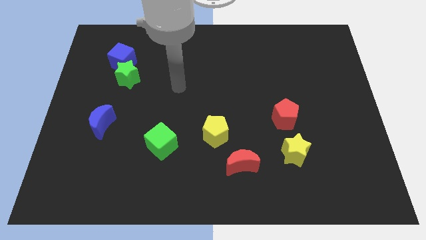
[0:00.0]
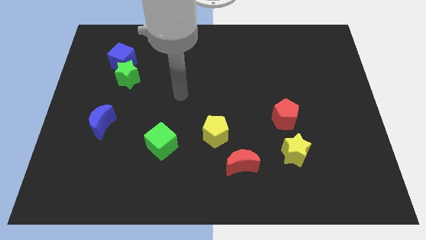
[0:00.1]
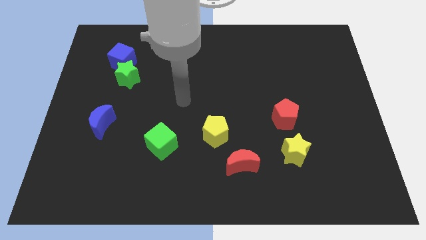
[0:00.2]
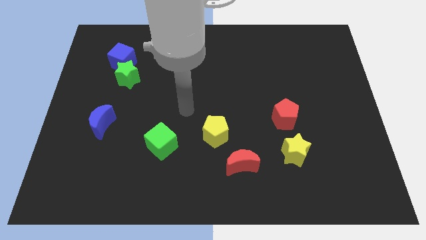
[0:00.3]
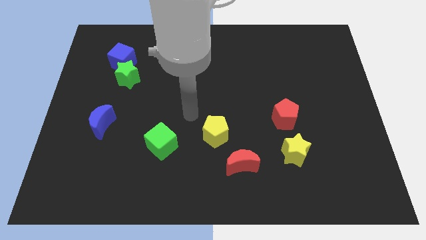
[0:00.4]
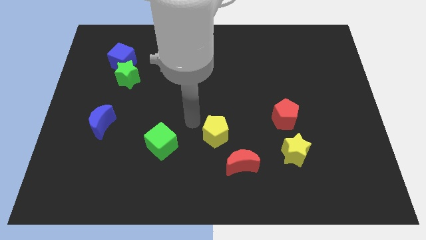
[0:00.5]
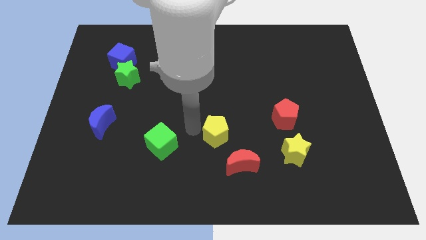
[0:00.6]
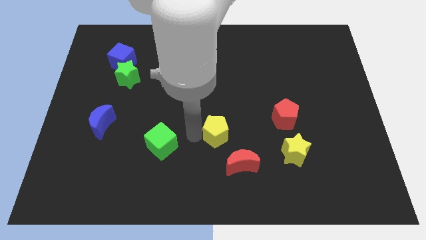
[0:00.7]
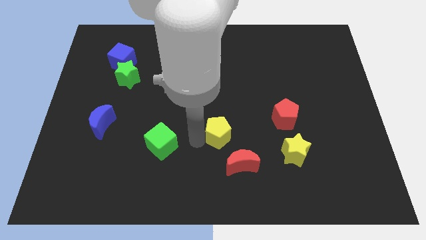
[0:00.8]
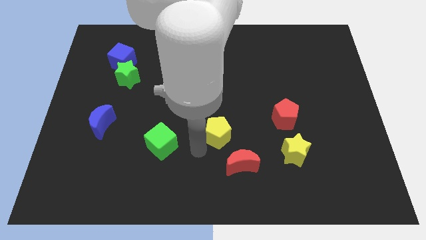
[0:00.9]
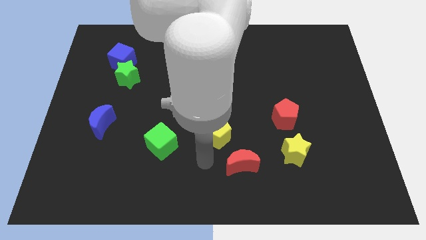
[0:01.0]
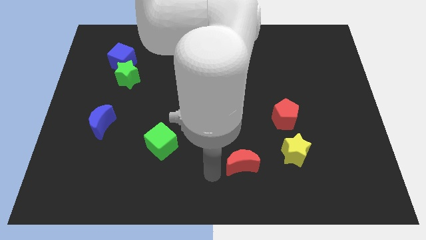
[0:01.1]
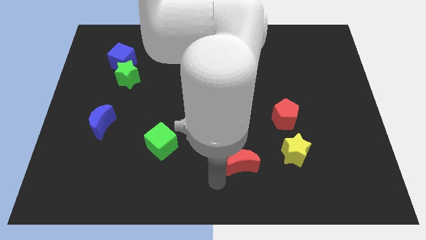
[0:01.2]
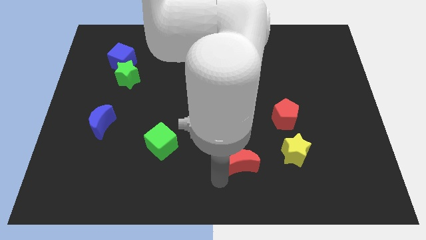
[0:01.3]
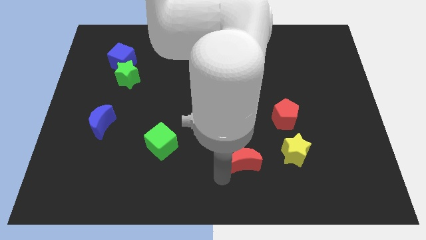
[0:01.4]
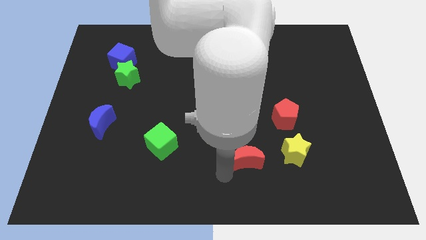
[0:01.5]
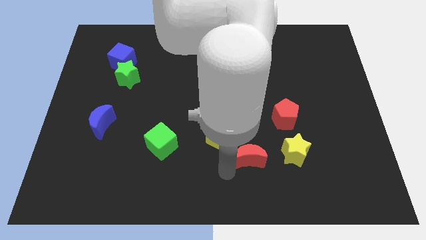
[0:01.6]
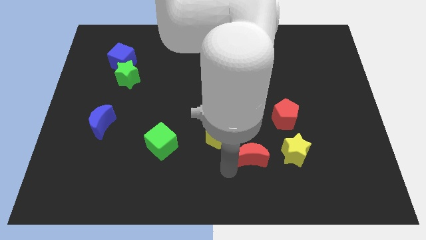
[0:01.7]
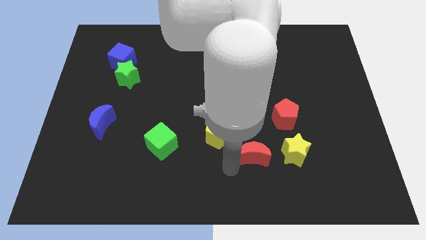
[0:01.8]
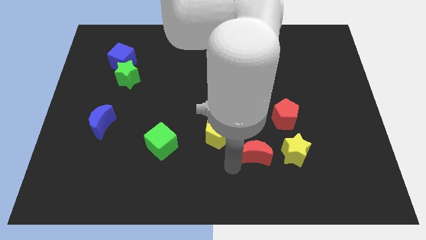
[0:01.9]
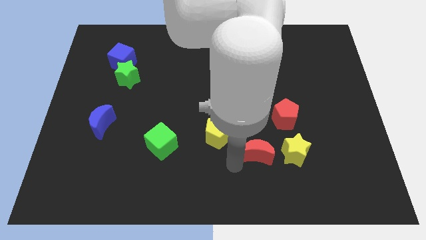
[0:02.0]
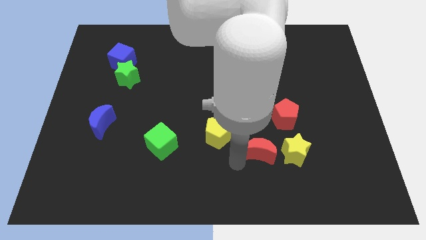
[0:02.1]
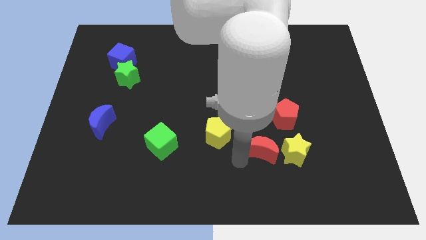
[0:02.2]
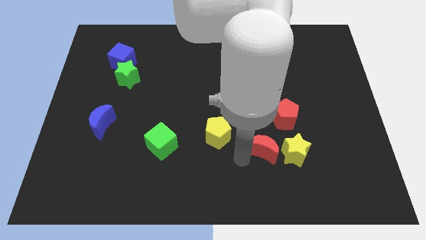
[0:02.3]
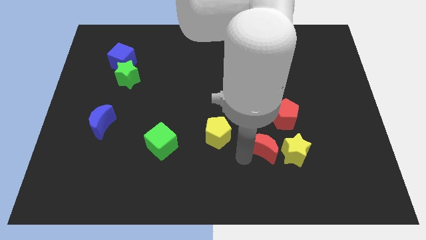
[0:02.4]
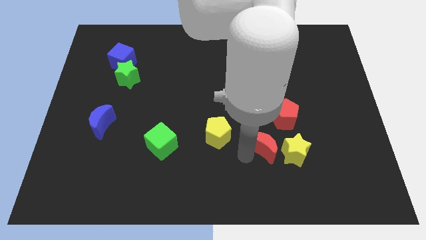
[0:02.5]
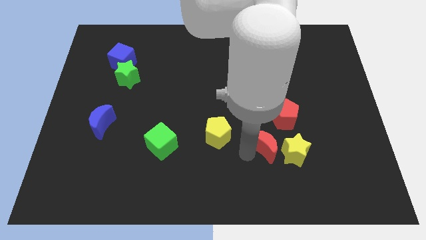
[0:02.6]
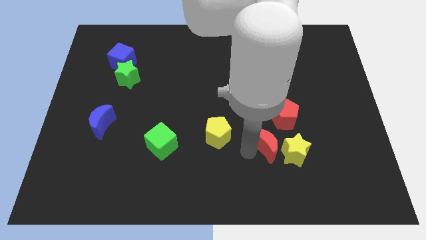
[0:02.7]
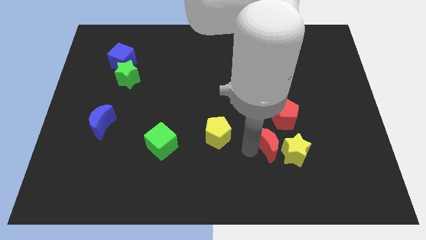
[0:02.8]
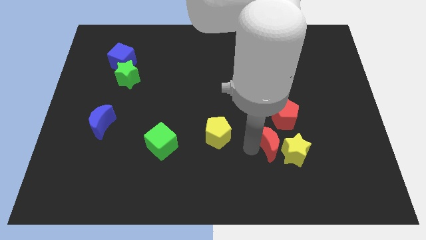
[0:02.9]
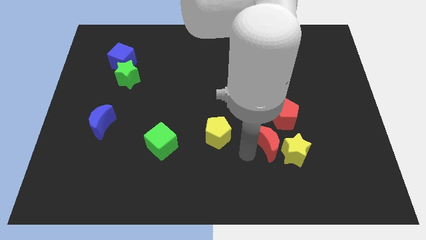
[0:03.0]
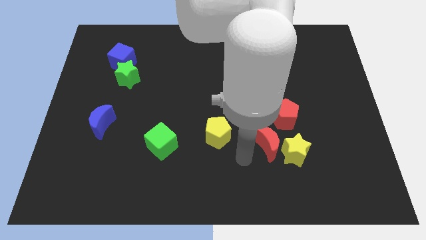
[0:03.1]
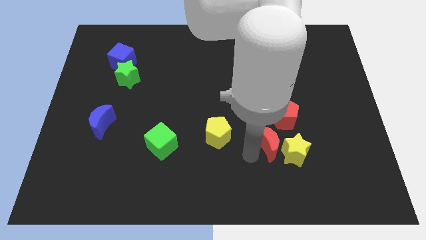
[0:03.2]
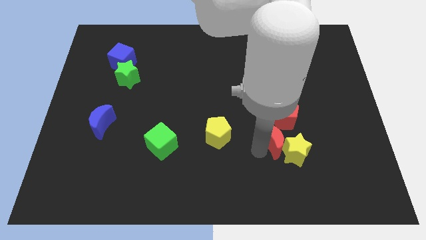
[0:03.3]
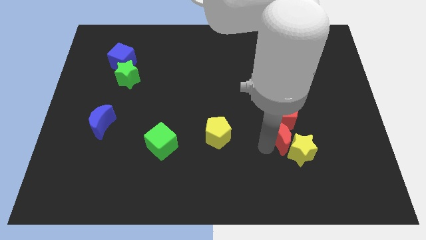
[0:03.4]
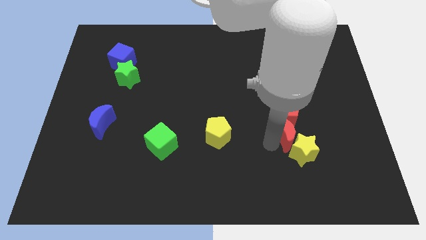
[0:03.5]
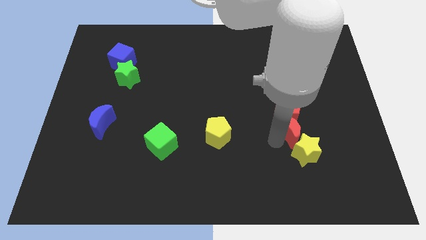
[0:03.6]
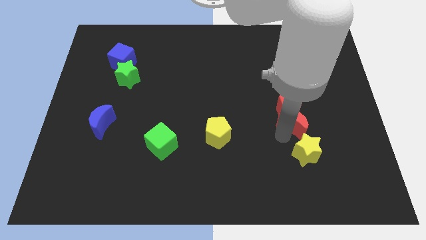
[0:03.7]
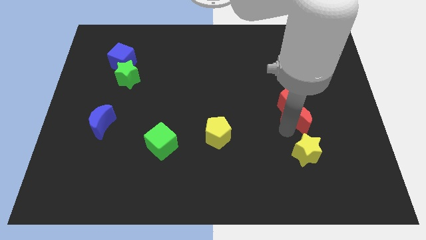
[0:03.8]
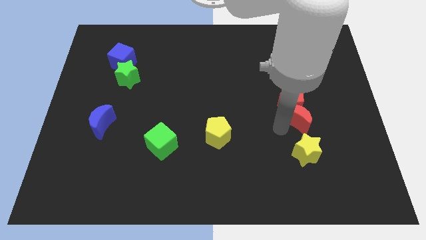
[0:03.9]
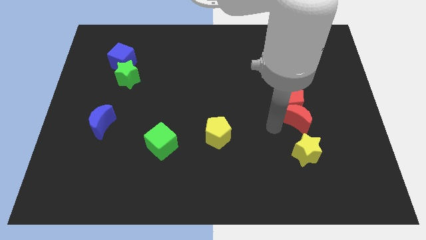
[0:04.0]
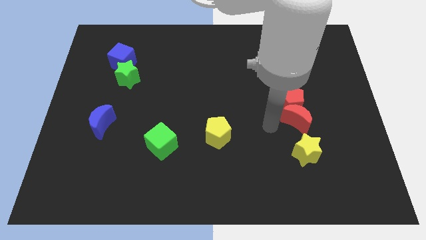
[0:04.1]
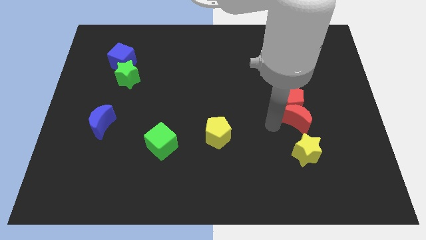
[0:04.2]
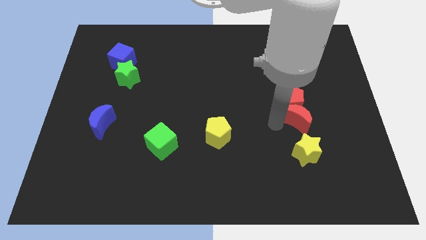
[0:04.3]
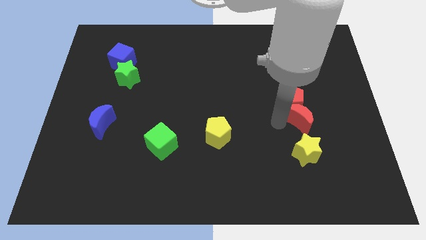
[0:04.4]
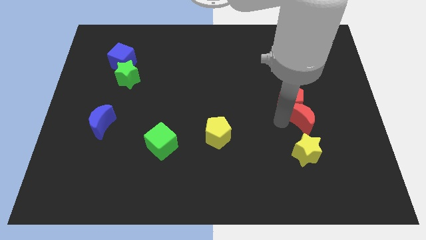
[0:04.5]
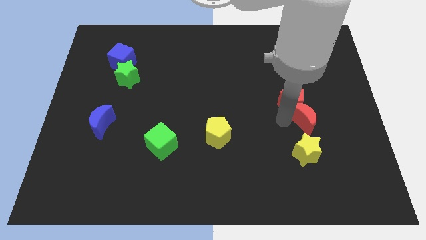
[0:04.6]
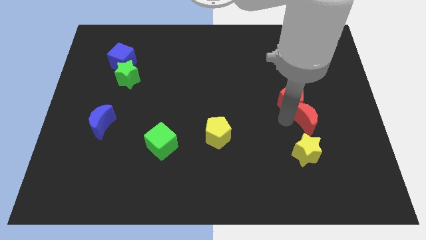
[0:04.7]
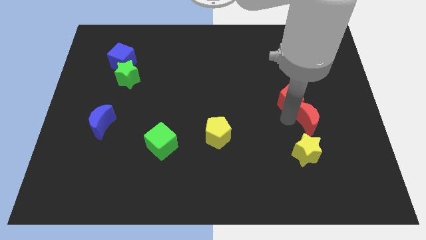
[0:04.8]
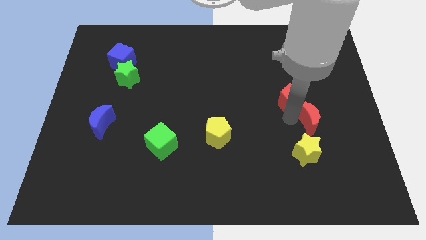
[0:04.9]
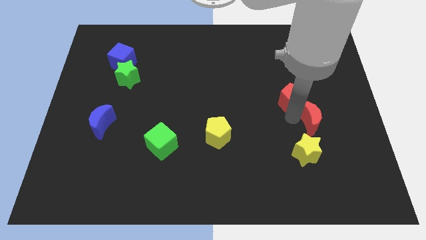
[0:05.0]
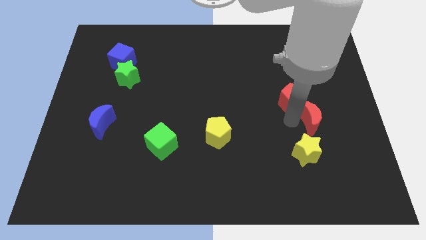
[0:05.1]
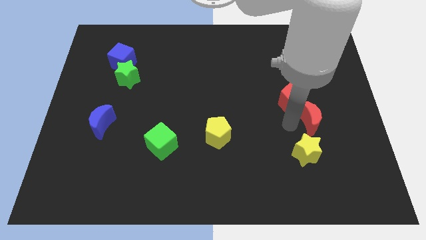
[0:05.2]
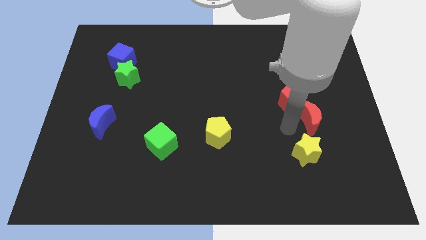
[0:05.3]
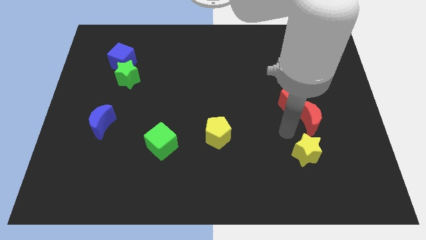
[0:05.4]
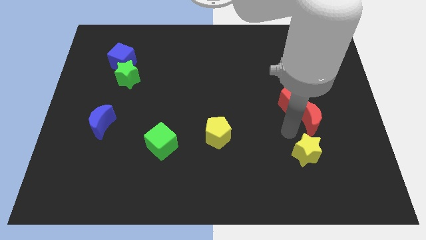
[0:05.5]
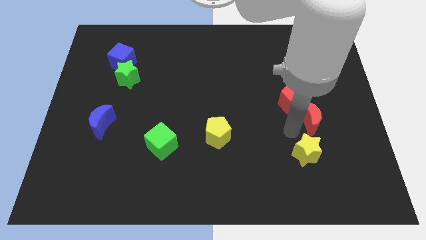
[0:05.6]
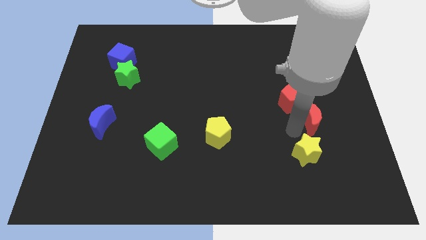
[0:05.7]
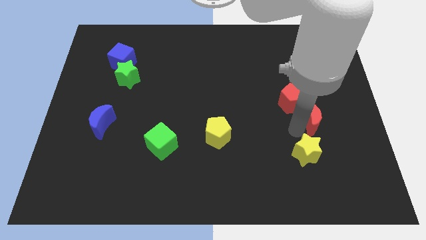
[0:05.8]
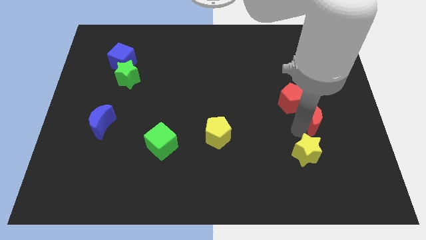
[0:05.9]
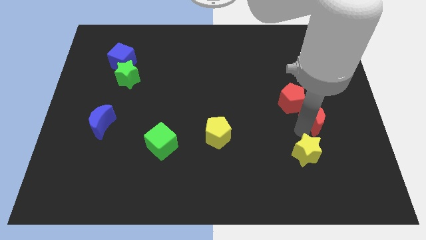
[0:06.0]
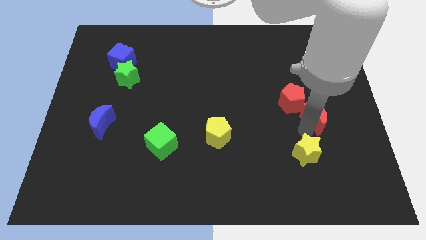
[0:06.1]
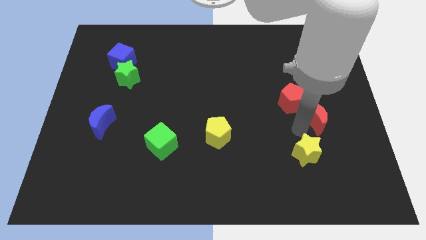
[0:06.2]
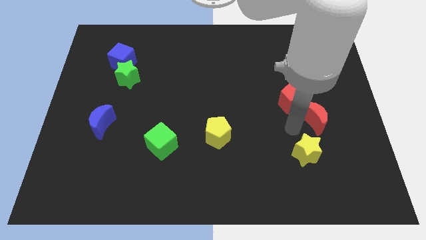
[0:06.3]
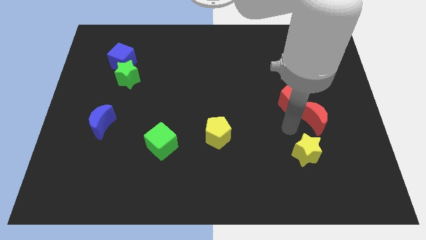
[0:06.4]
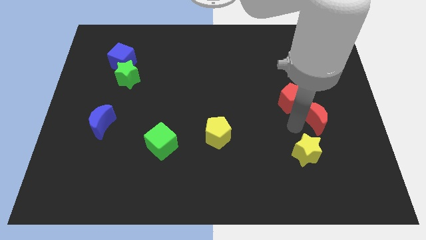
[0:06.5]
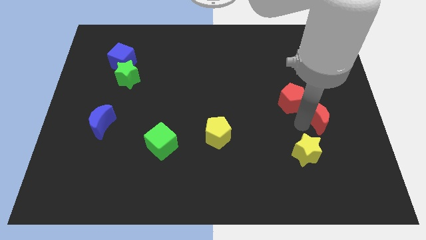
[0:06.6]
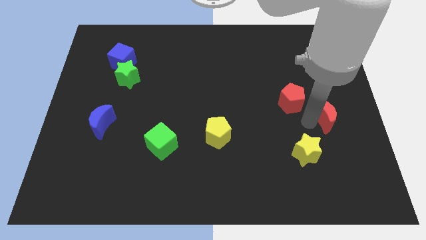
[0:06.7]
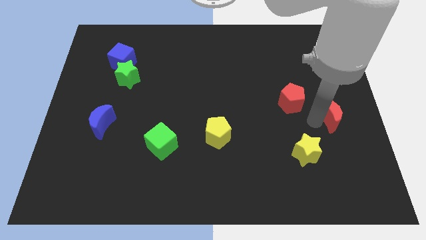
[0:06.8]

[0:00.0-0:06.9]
put the red moon to the right side
